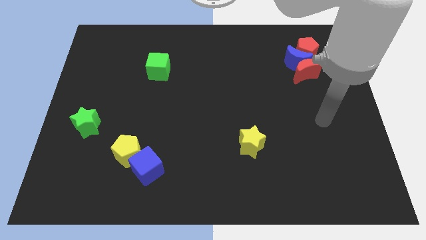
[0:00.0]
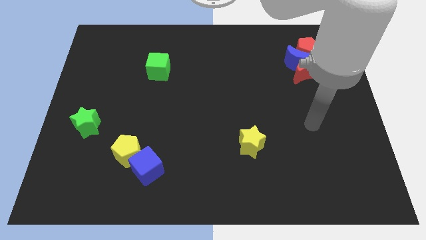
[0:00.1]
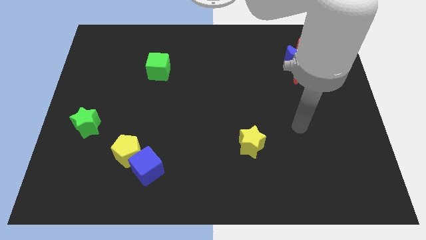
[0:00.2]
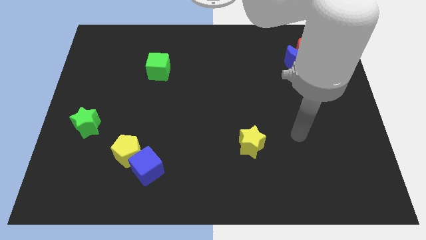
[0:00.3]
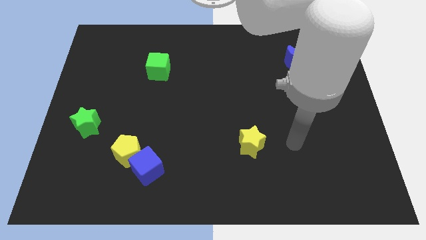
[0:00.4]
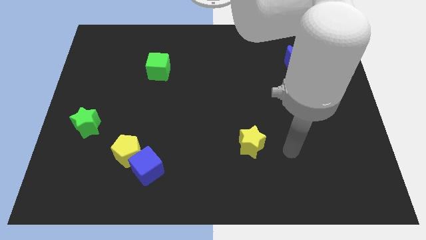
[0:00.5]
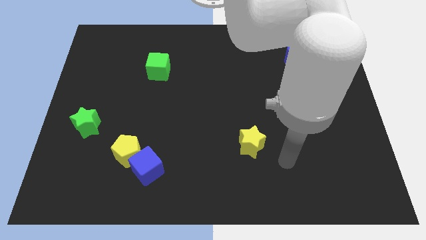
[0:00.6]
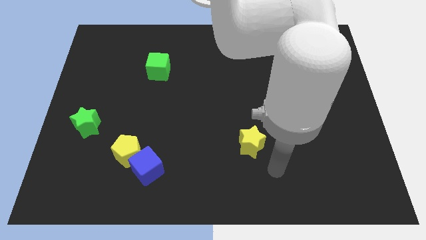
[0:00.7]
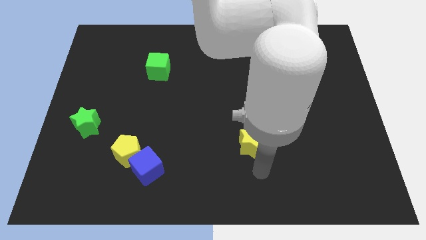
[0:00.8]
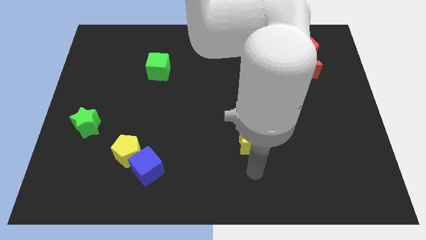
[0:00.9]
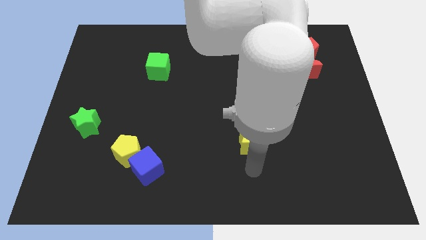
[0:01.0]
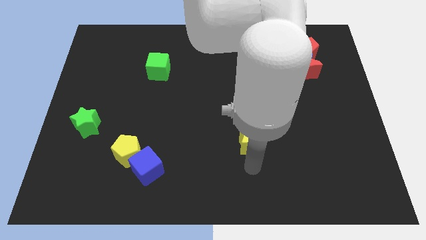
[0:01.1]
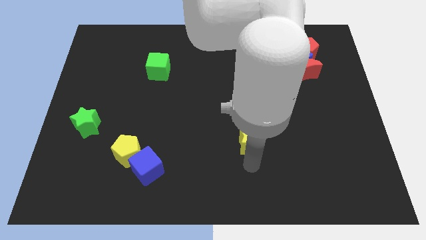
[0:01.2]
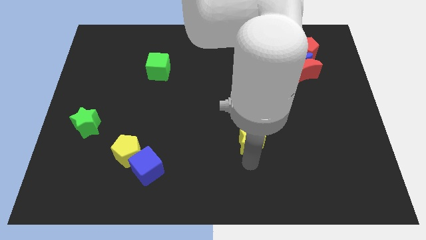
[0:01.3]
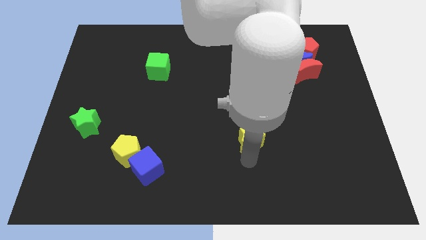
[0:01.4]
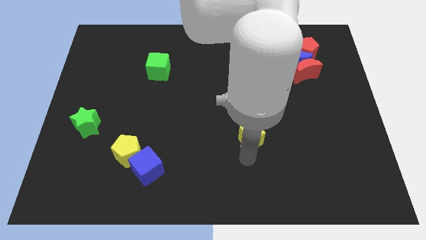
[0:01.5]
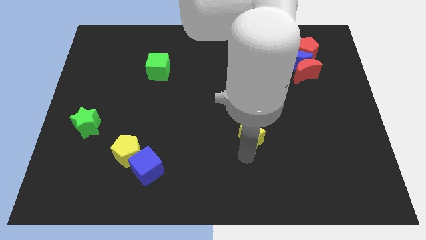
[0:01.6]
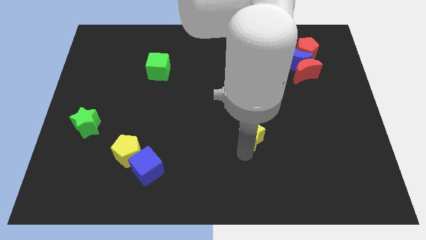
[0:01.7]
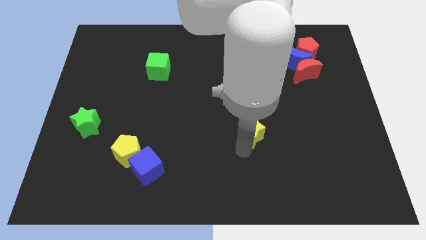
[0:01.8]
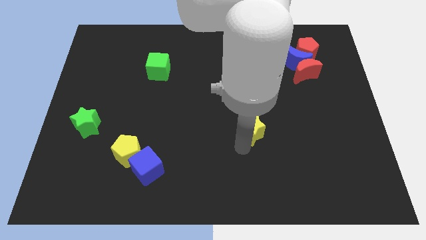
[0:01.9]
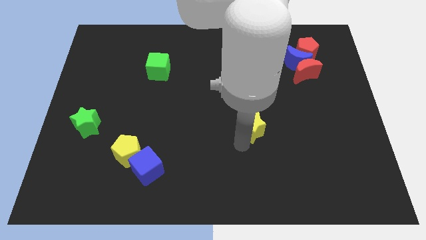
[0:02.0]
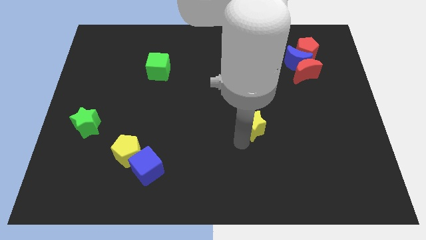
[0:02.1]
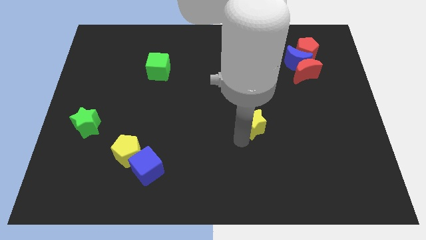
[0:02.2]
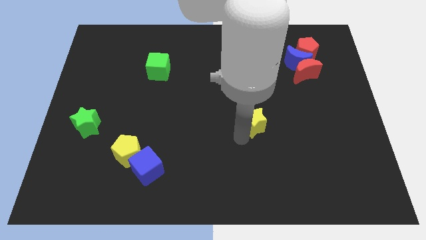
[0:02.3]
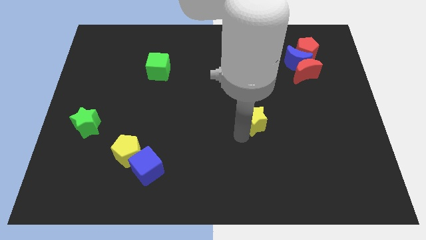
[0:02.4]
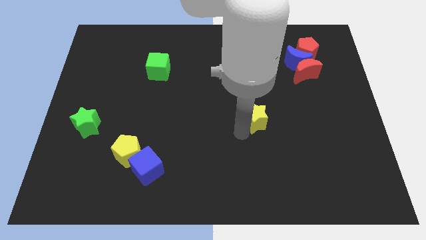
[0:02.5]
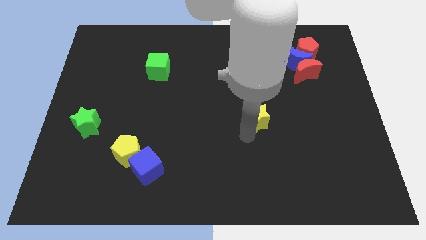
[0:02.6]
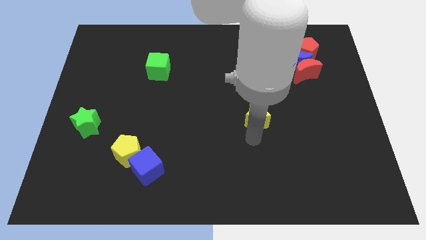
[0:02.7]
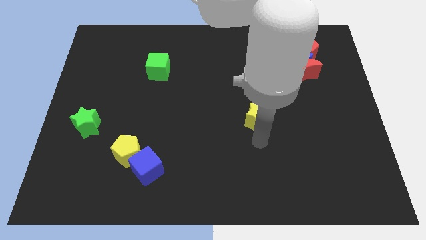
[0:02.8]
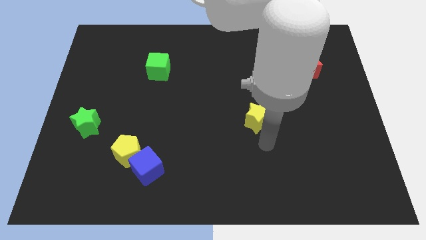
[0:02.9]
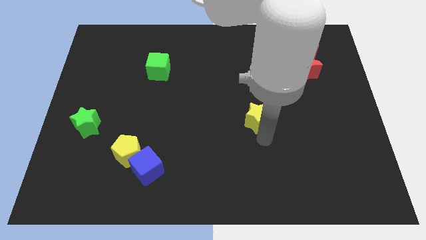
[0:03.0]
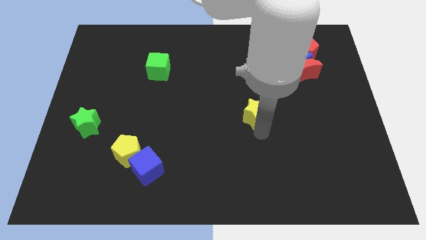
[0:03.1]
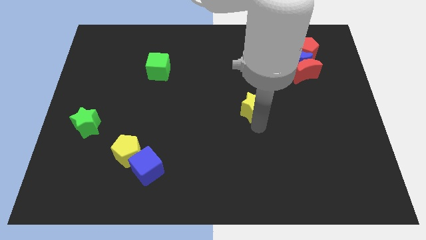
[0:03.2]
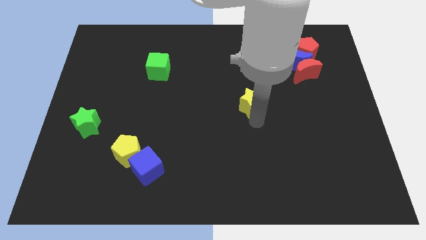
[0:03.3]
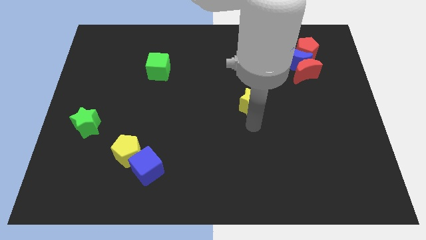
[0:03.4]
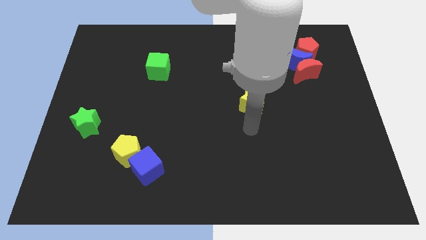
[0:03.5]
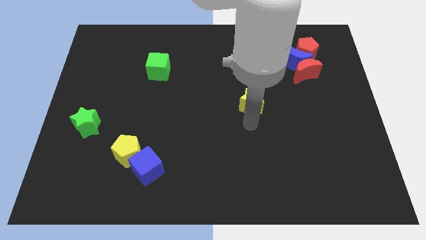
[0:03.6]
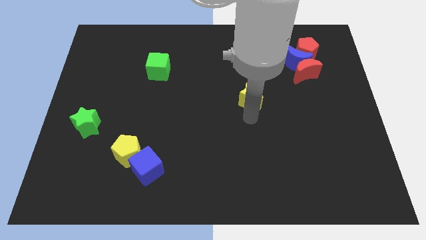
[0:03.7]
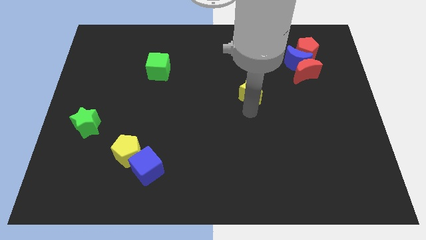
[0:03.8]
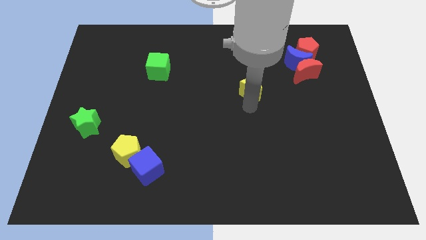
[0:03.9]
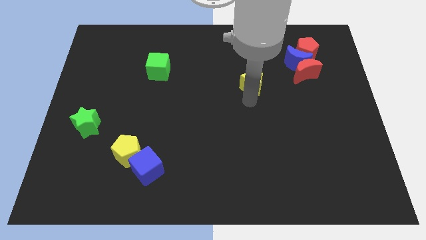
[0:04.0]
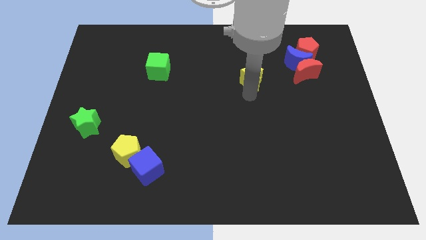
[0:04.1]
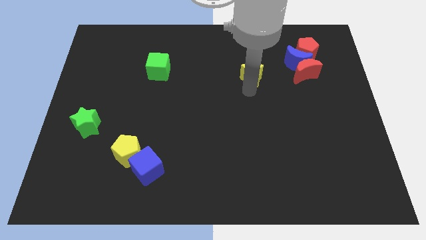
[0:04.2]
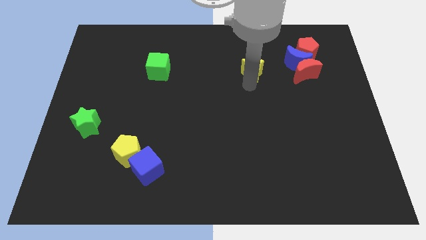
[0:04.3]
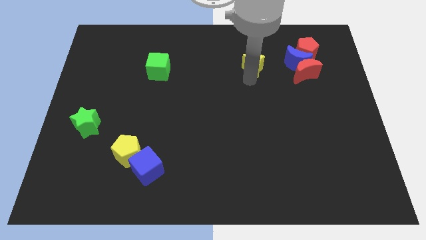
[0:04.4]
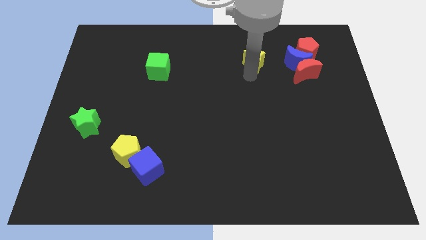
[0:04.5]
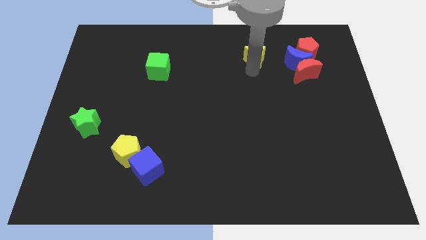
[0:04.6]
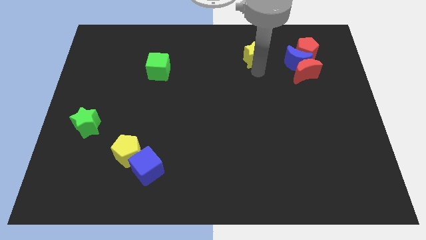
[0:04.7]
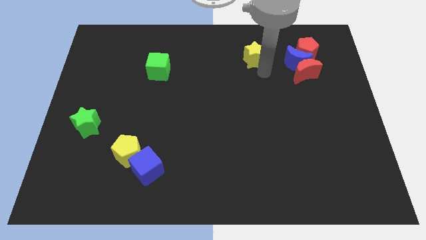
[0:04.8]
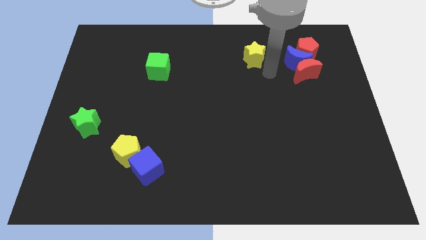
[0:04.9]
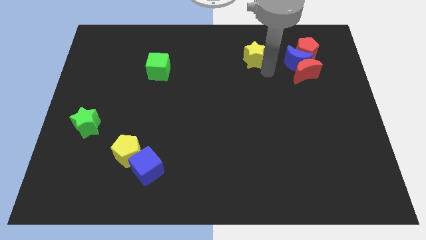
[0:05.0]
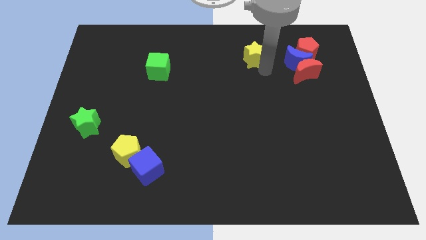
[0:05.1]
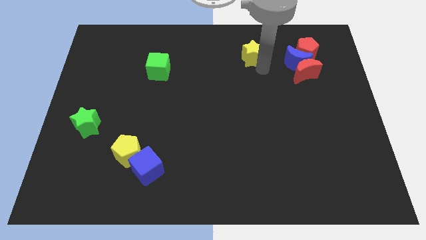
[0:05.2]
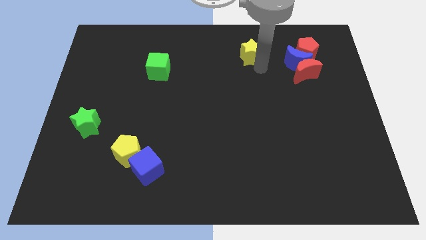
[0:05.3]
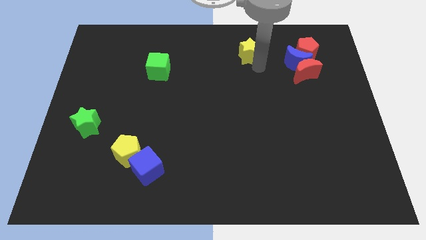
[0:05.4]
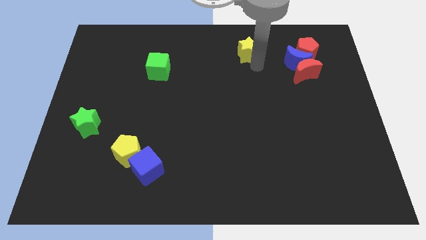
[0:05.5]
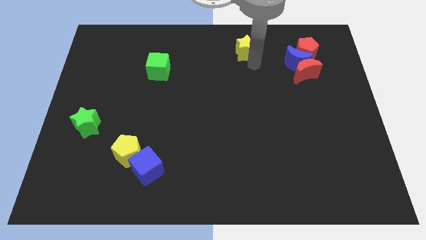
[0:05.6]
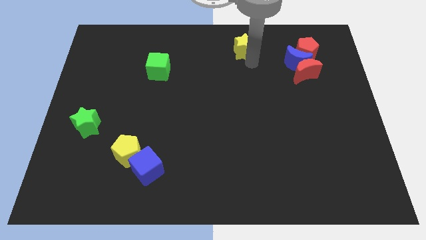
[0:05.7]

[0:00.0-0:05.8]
slide the yellow star to the top

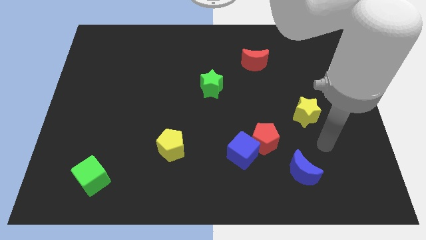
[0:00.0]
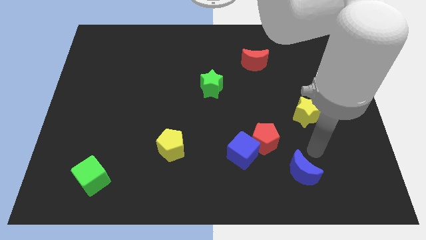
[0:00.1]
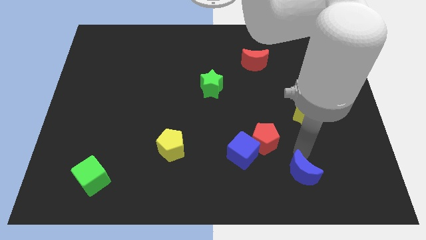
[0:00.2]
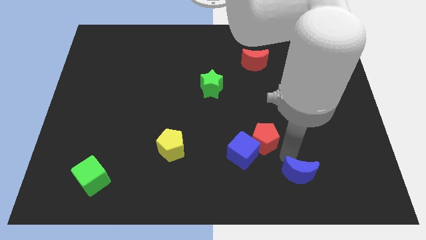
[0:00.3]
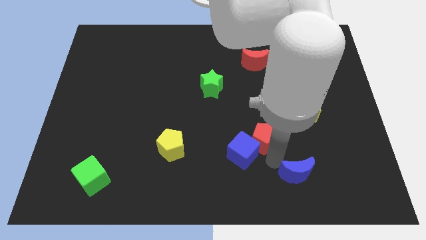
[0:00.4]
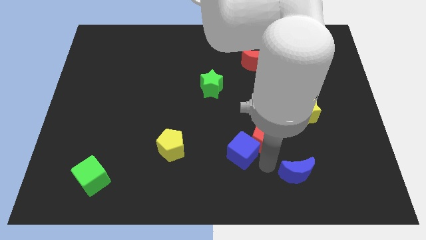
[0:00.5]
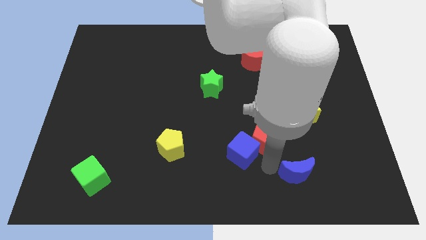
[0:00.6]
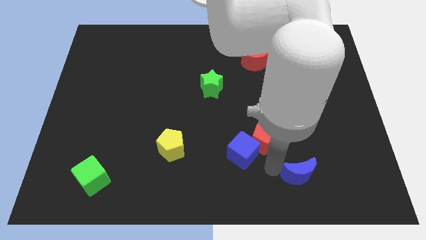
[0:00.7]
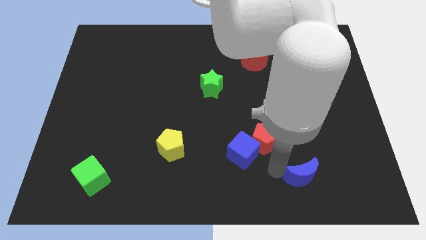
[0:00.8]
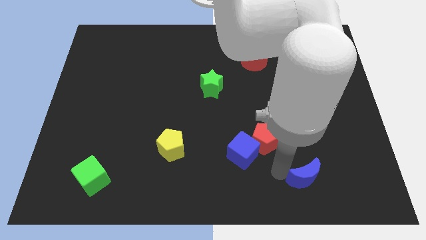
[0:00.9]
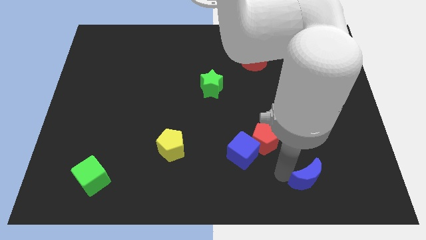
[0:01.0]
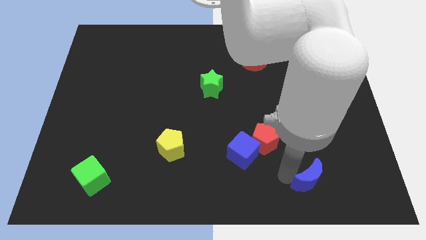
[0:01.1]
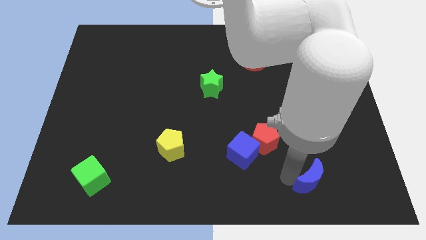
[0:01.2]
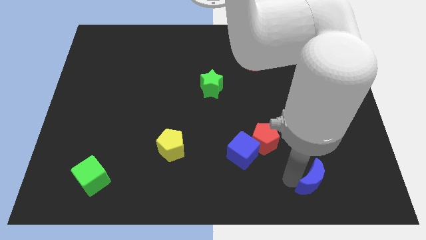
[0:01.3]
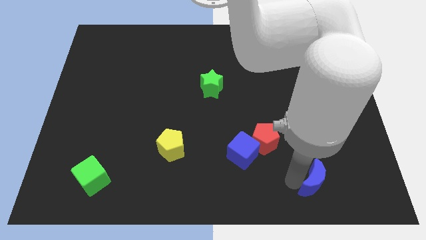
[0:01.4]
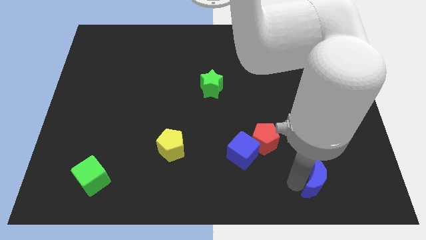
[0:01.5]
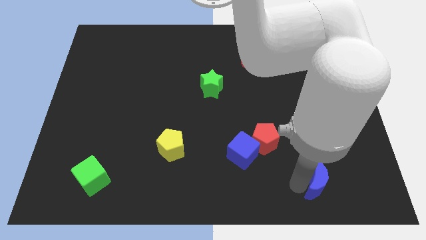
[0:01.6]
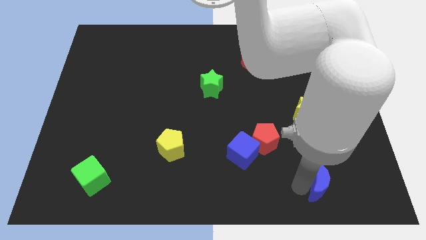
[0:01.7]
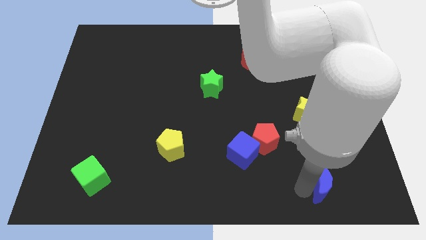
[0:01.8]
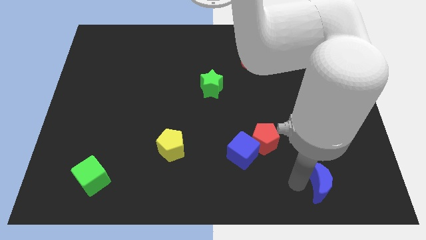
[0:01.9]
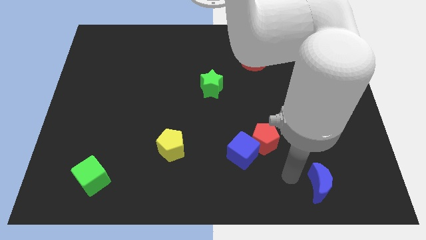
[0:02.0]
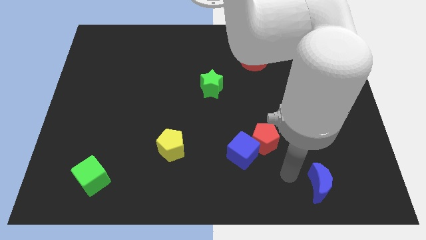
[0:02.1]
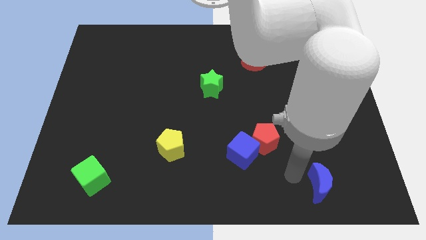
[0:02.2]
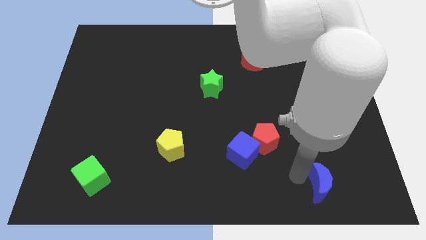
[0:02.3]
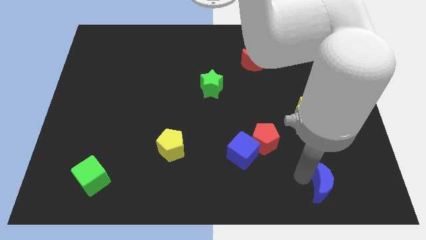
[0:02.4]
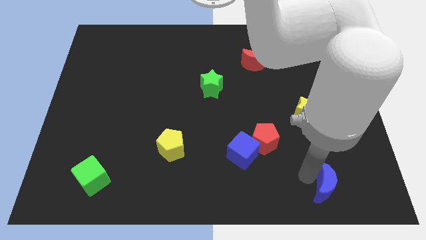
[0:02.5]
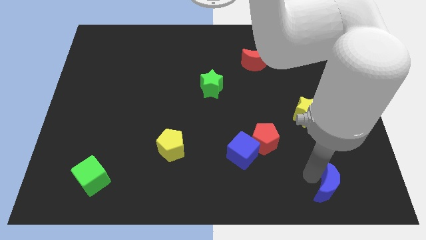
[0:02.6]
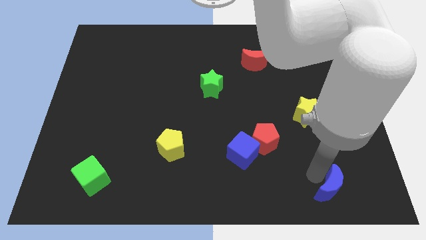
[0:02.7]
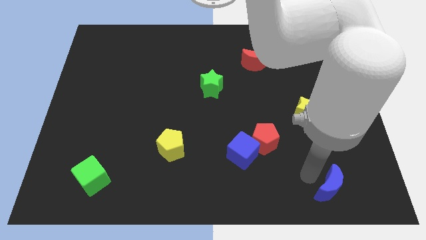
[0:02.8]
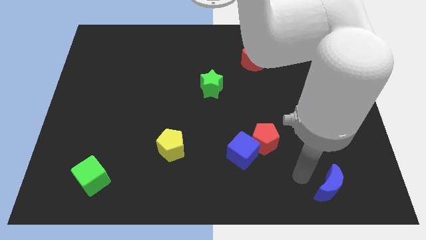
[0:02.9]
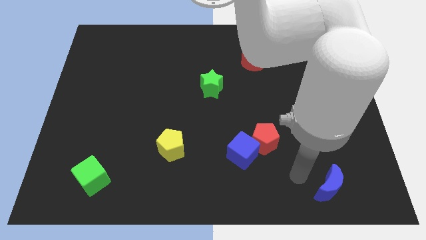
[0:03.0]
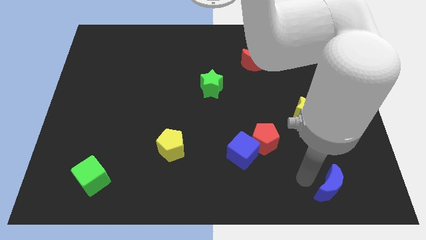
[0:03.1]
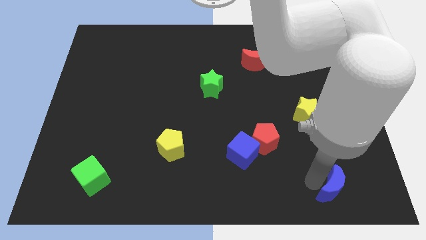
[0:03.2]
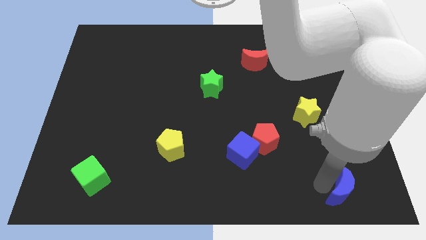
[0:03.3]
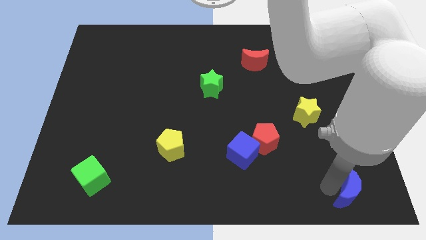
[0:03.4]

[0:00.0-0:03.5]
slide the blue moon to the lower right corner
